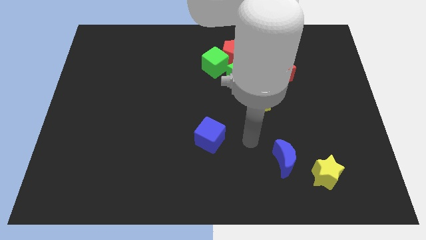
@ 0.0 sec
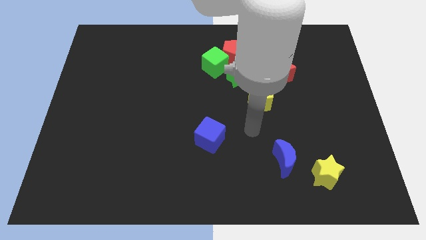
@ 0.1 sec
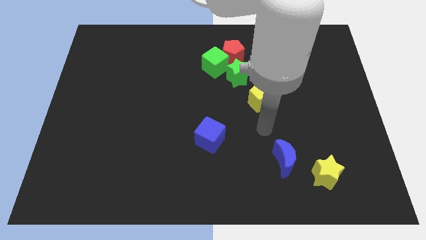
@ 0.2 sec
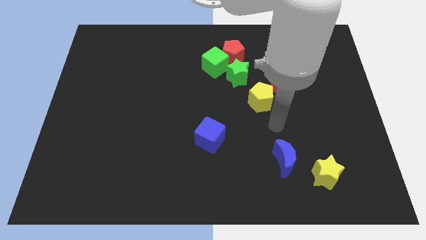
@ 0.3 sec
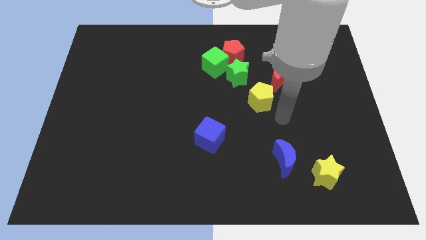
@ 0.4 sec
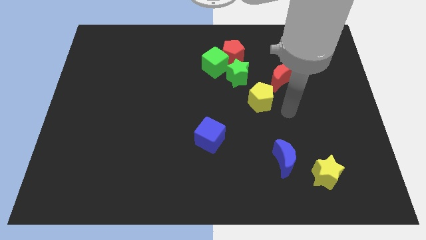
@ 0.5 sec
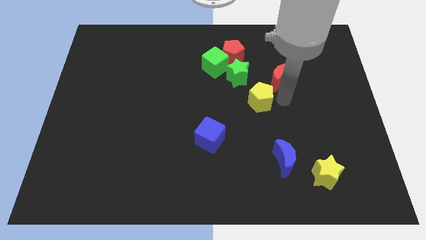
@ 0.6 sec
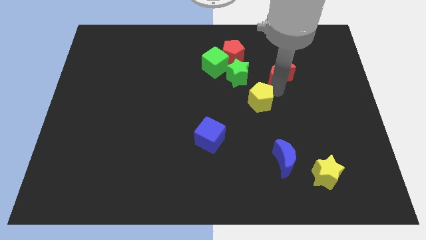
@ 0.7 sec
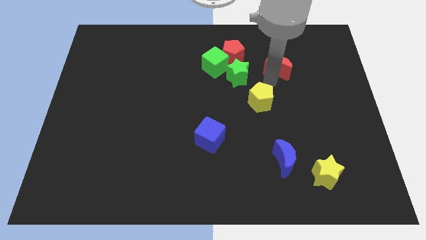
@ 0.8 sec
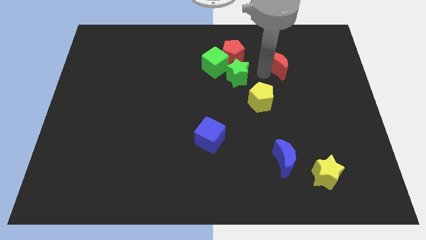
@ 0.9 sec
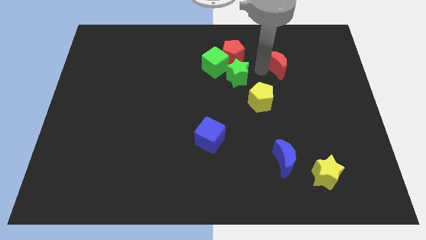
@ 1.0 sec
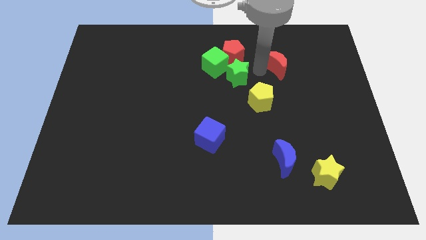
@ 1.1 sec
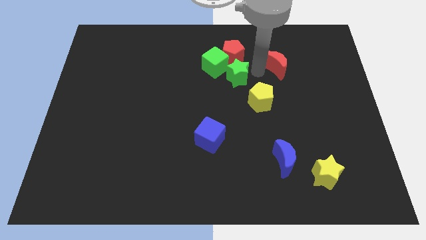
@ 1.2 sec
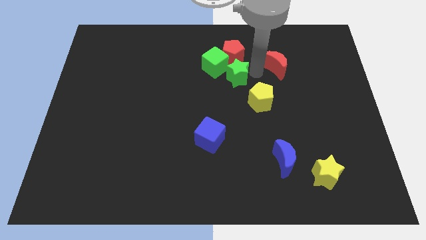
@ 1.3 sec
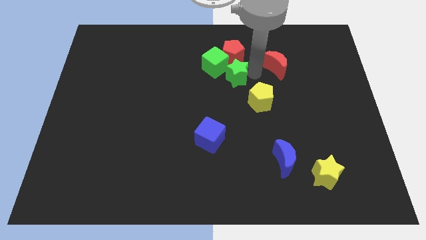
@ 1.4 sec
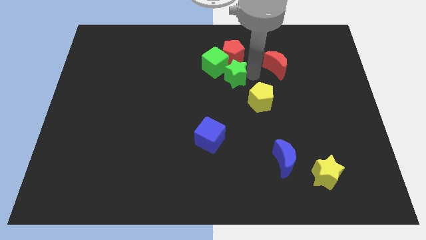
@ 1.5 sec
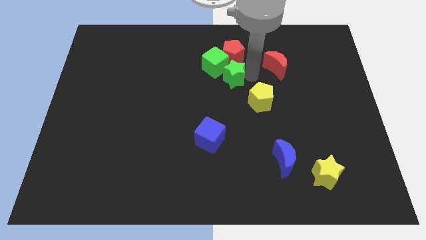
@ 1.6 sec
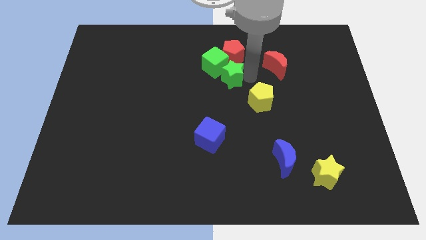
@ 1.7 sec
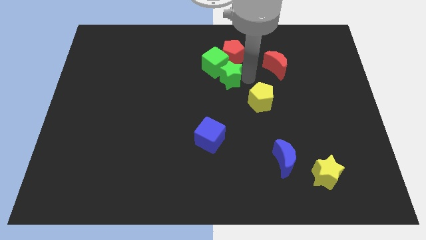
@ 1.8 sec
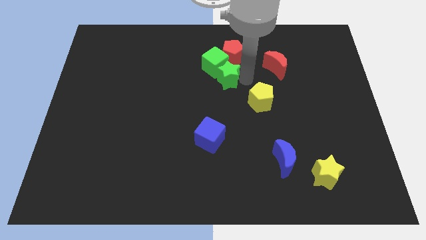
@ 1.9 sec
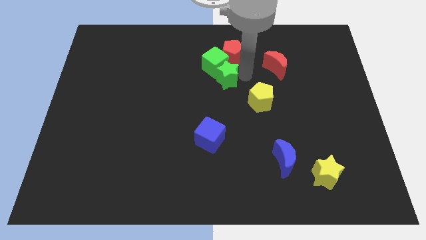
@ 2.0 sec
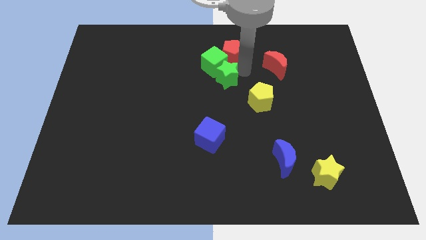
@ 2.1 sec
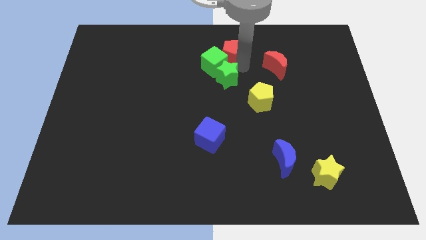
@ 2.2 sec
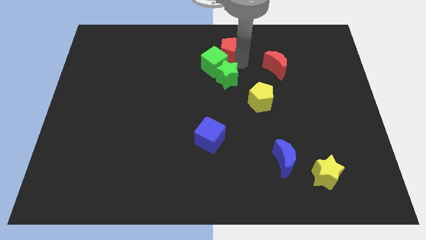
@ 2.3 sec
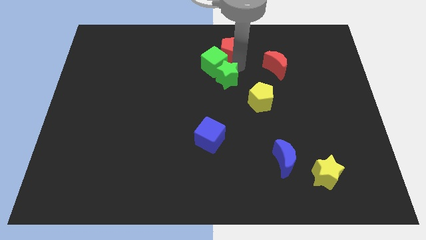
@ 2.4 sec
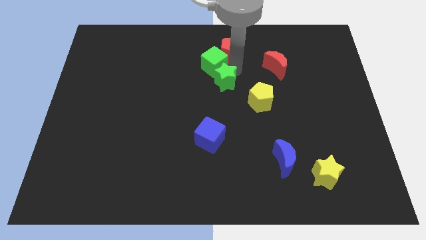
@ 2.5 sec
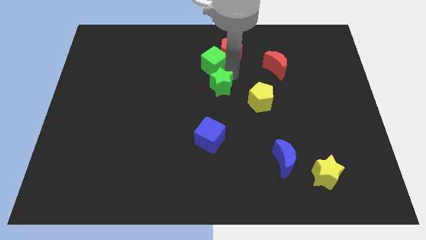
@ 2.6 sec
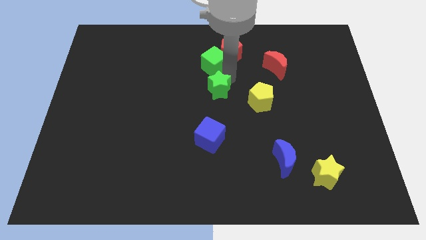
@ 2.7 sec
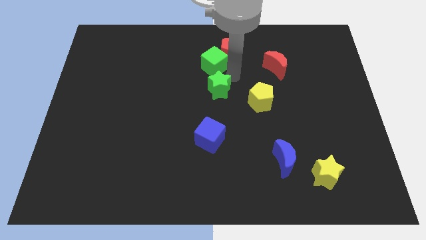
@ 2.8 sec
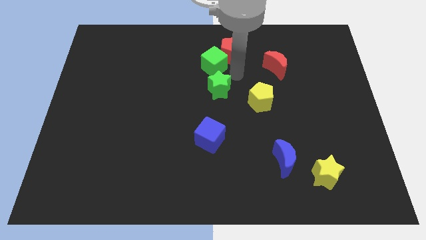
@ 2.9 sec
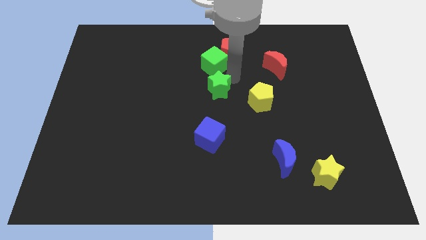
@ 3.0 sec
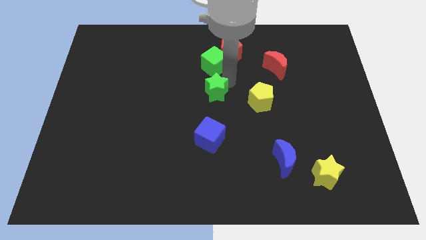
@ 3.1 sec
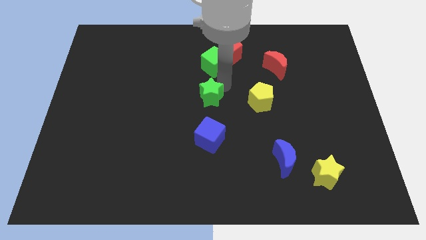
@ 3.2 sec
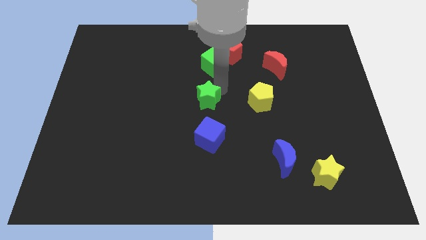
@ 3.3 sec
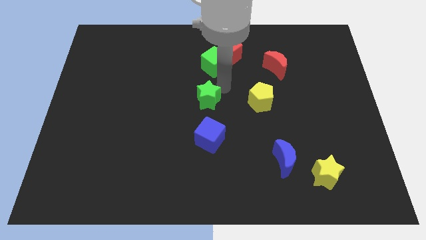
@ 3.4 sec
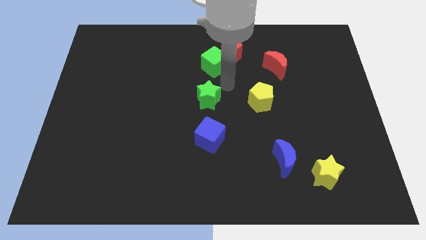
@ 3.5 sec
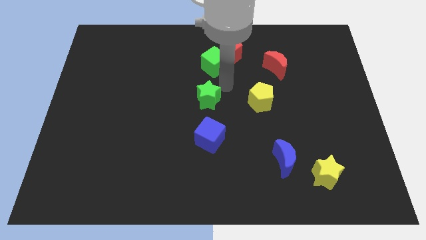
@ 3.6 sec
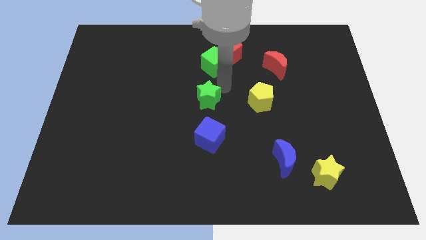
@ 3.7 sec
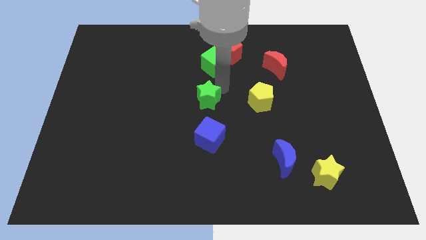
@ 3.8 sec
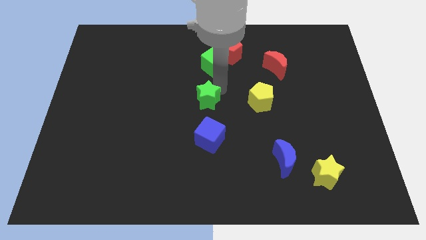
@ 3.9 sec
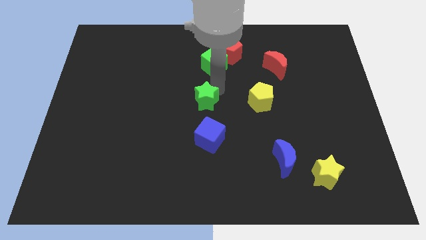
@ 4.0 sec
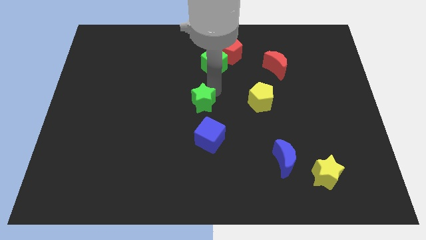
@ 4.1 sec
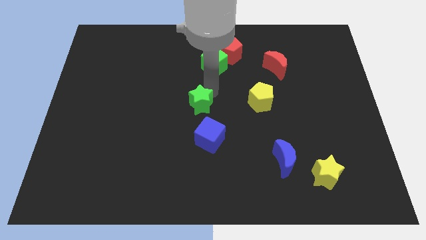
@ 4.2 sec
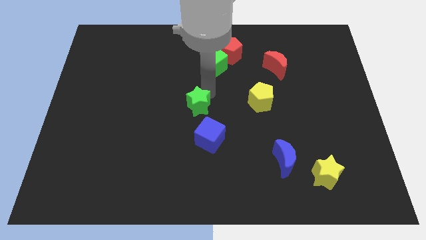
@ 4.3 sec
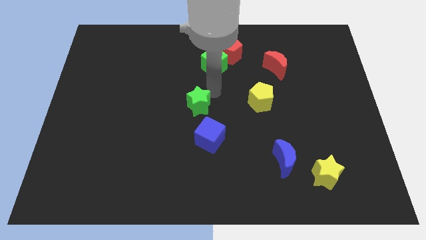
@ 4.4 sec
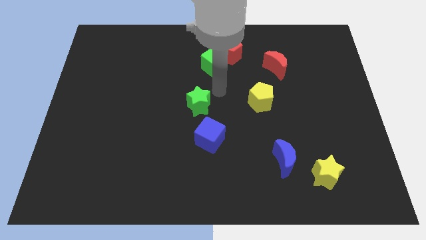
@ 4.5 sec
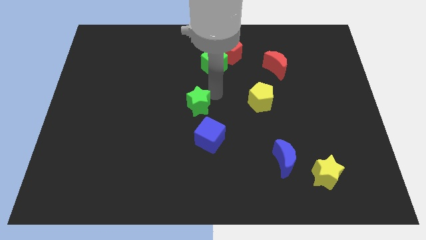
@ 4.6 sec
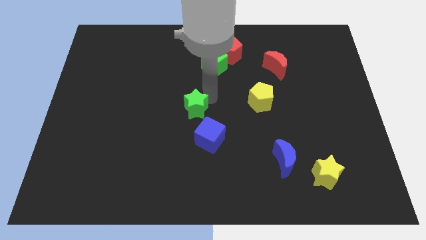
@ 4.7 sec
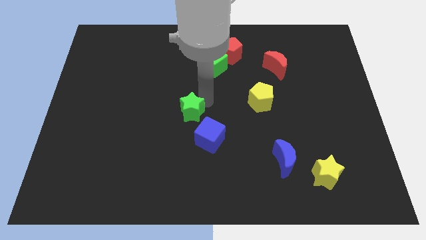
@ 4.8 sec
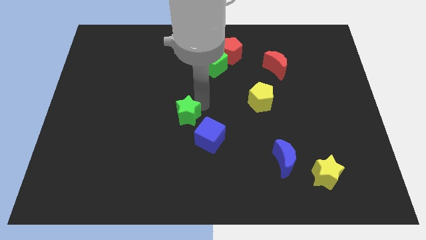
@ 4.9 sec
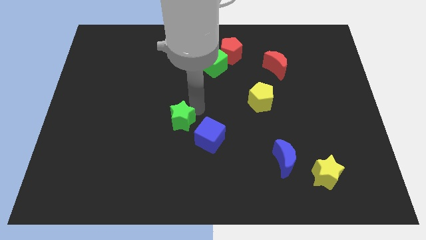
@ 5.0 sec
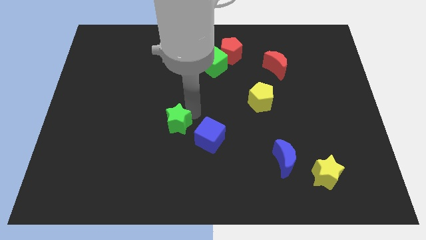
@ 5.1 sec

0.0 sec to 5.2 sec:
move the green star downwards and left diagonally

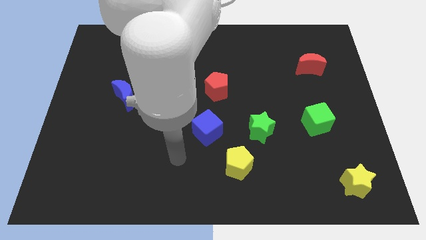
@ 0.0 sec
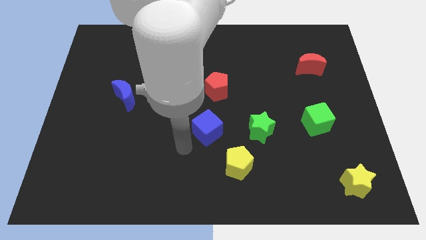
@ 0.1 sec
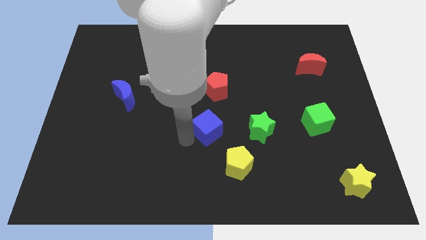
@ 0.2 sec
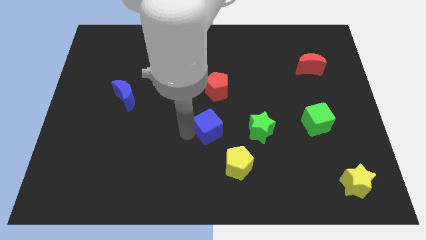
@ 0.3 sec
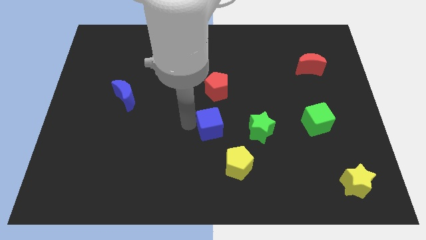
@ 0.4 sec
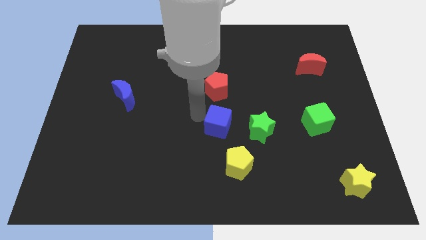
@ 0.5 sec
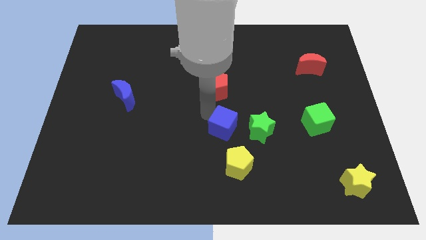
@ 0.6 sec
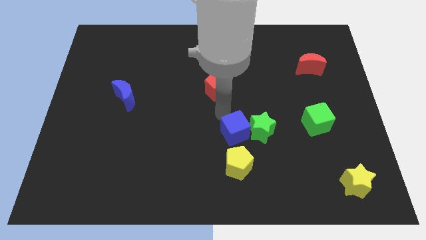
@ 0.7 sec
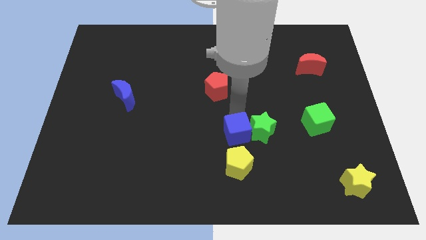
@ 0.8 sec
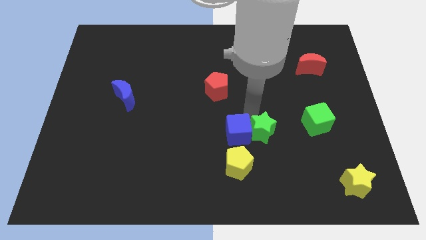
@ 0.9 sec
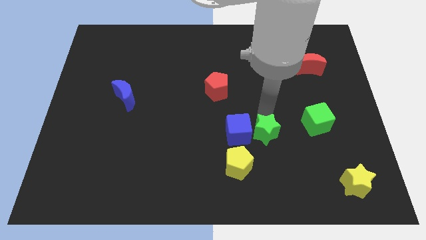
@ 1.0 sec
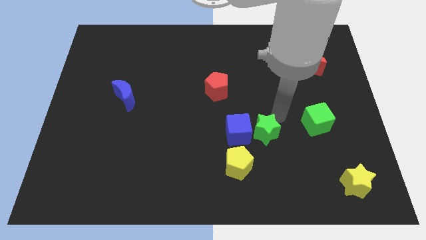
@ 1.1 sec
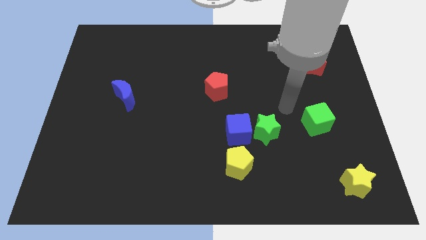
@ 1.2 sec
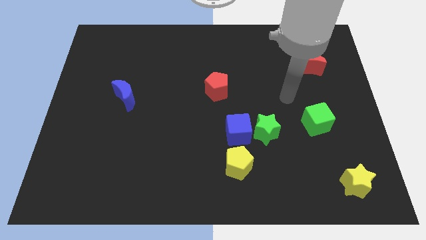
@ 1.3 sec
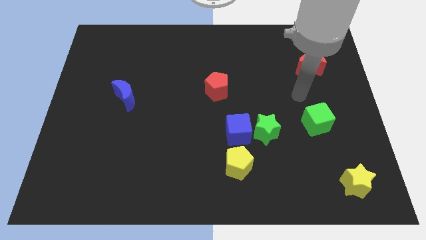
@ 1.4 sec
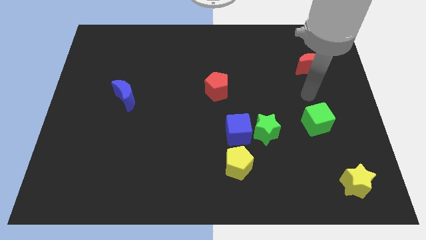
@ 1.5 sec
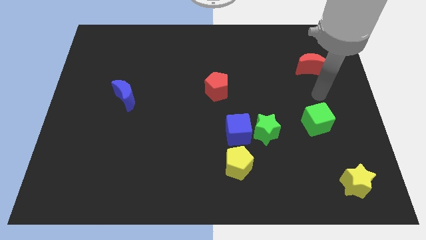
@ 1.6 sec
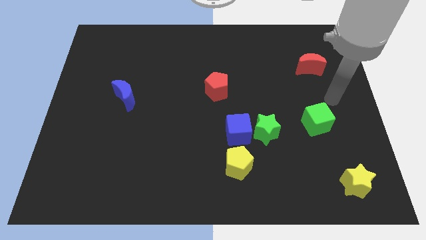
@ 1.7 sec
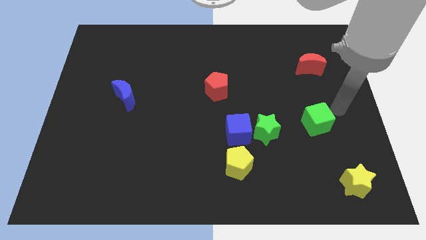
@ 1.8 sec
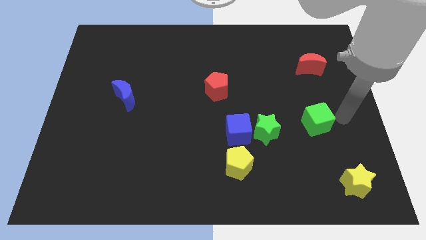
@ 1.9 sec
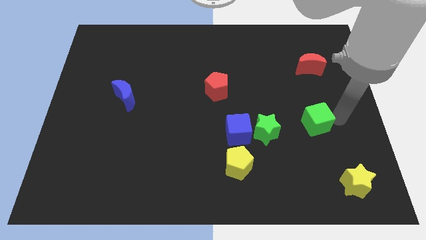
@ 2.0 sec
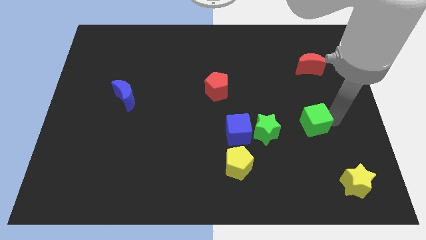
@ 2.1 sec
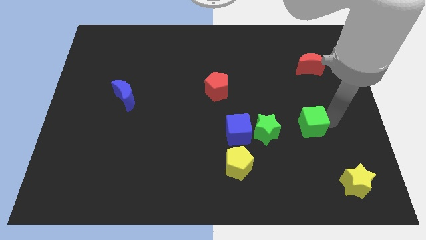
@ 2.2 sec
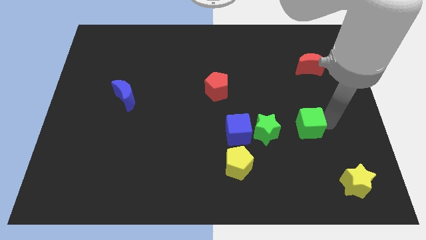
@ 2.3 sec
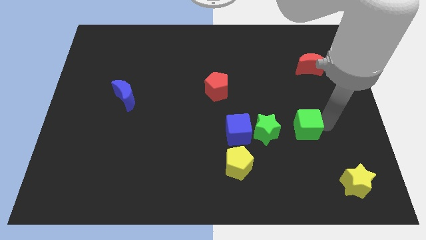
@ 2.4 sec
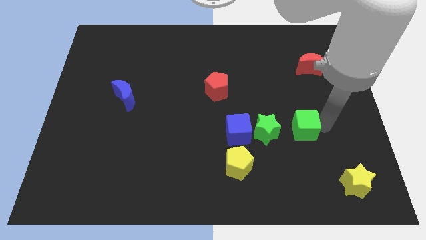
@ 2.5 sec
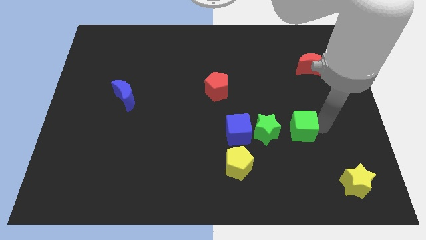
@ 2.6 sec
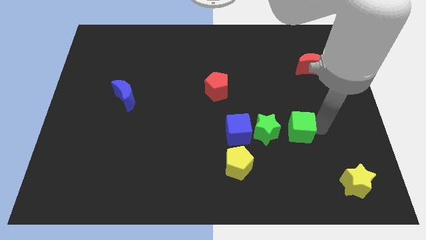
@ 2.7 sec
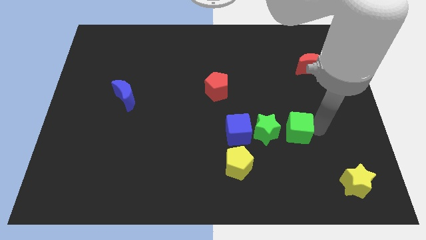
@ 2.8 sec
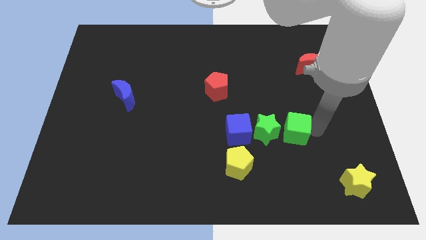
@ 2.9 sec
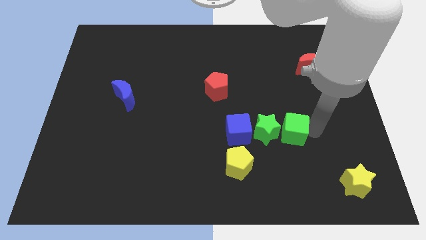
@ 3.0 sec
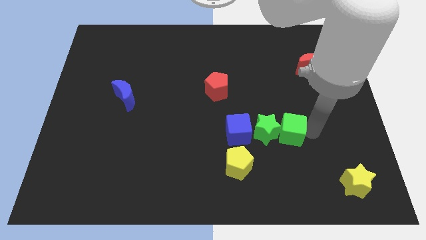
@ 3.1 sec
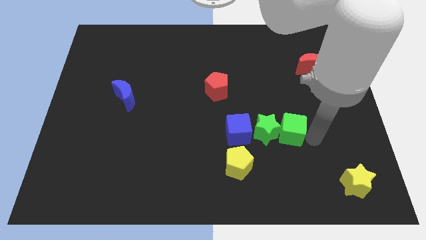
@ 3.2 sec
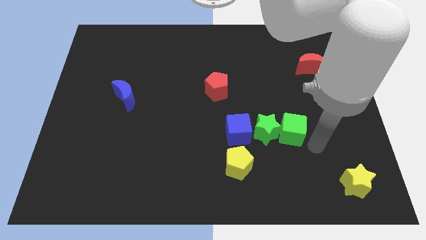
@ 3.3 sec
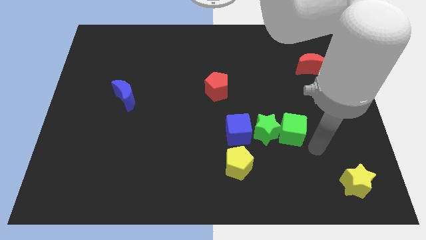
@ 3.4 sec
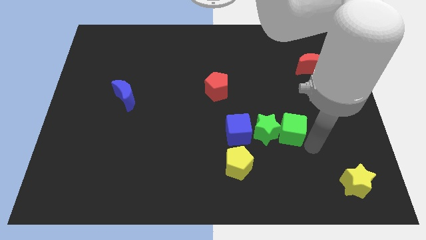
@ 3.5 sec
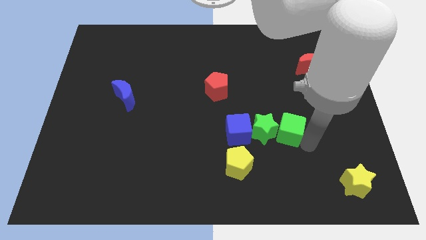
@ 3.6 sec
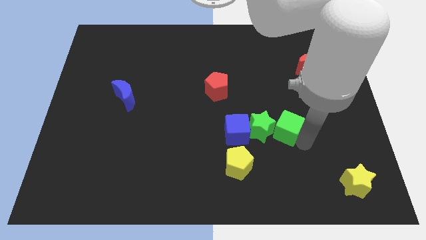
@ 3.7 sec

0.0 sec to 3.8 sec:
slide the green cube to the left a bit
